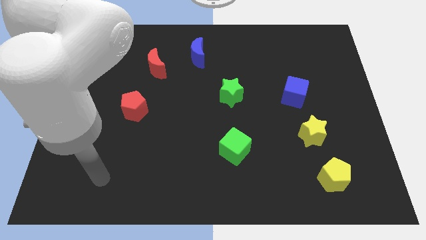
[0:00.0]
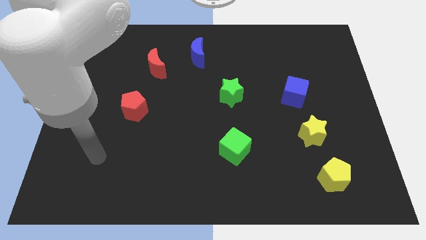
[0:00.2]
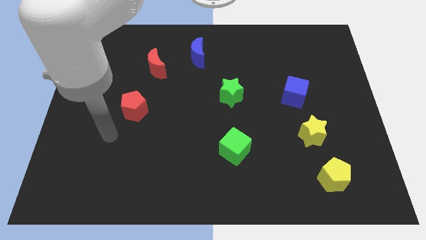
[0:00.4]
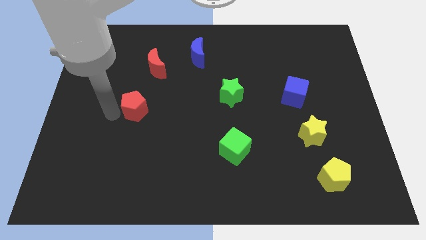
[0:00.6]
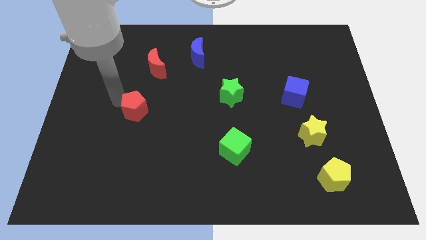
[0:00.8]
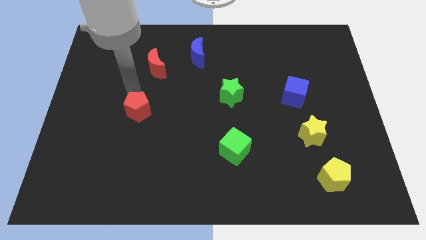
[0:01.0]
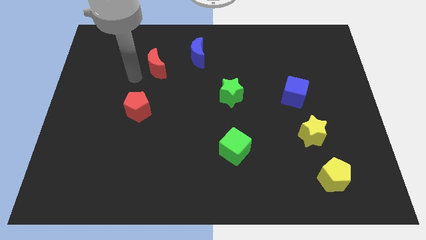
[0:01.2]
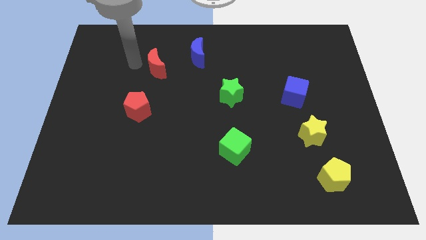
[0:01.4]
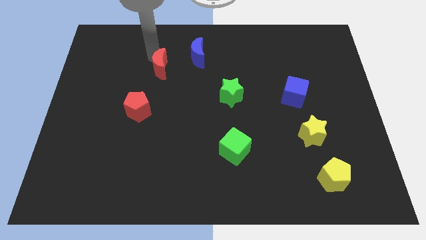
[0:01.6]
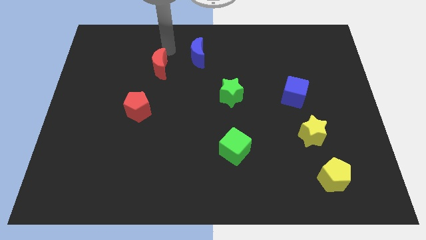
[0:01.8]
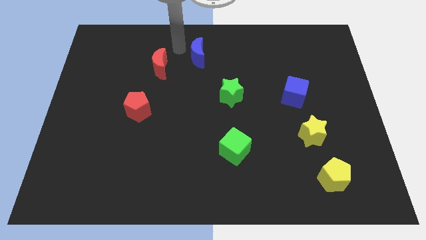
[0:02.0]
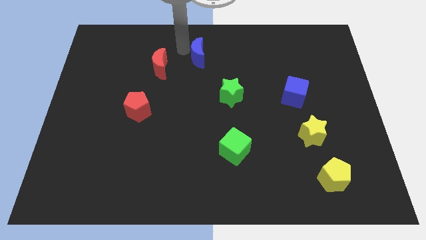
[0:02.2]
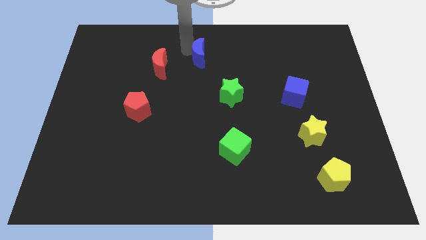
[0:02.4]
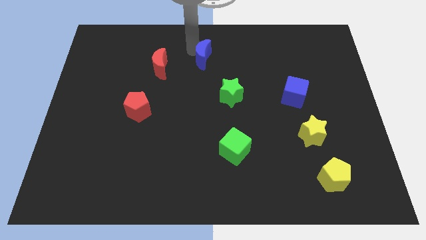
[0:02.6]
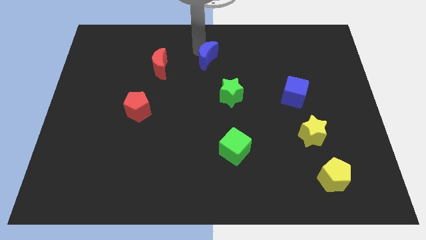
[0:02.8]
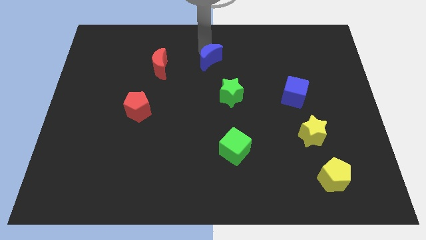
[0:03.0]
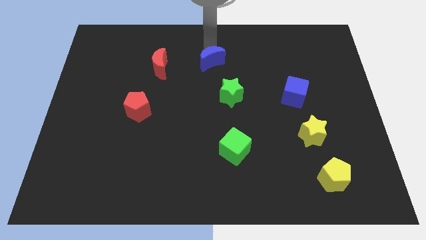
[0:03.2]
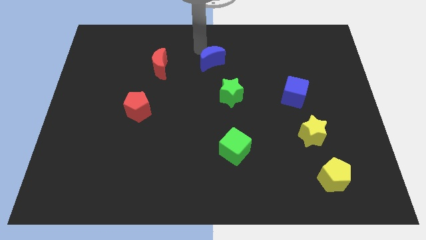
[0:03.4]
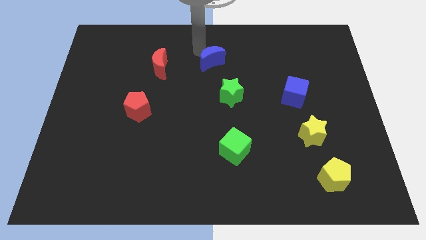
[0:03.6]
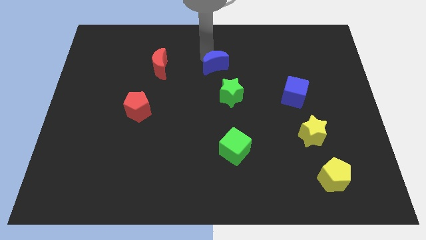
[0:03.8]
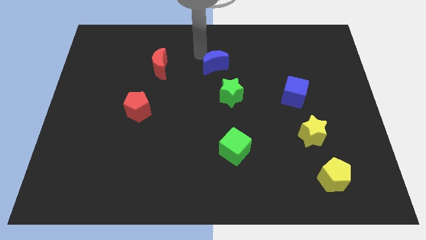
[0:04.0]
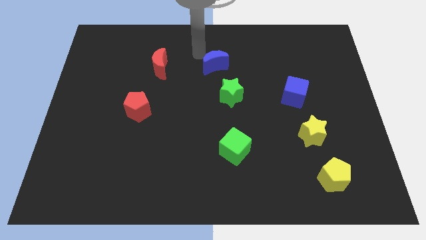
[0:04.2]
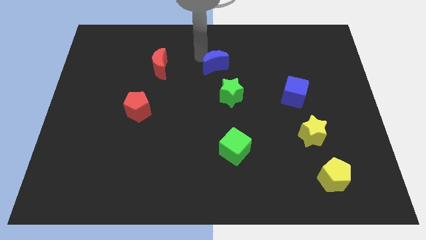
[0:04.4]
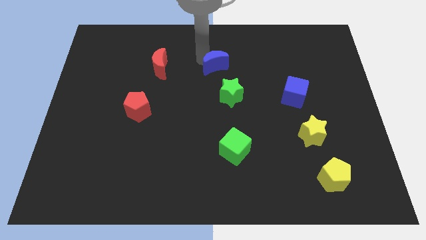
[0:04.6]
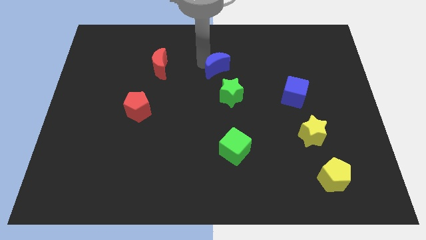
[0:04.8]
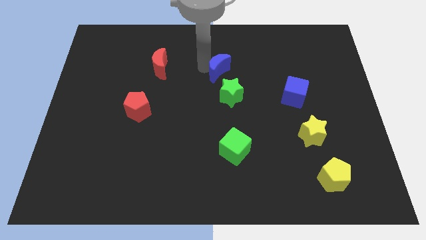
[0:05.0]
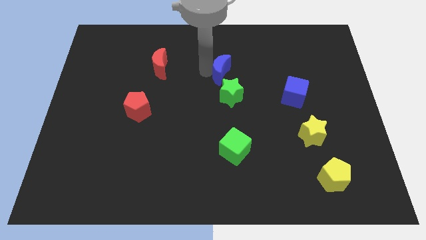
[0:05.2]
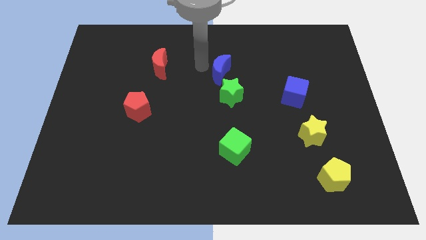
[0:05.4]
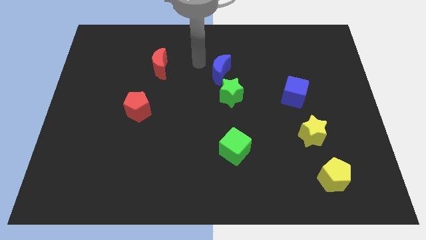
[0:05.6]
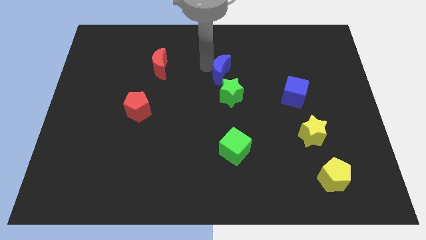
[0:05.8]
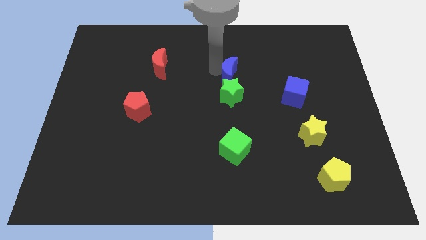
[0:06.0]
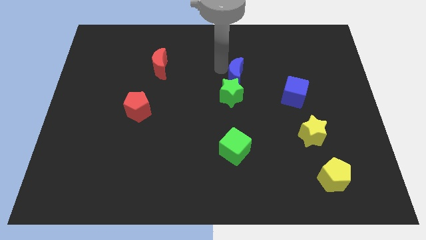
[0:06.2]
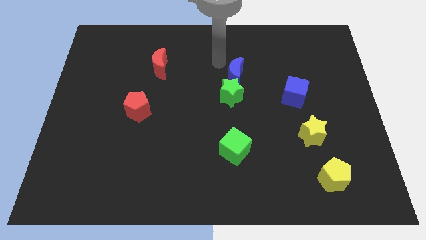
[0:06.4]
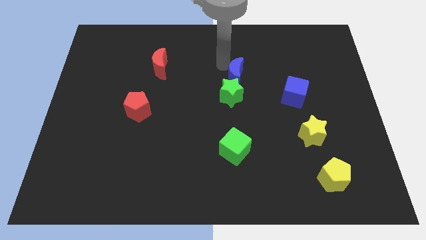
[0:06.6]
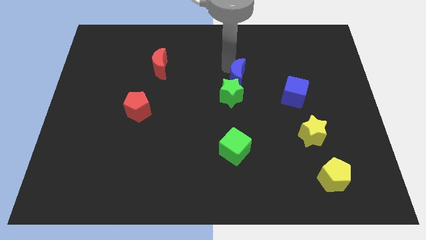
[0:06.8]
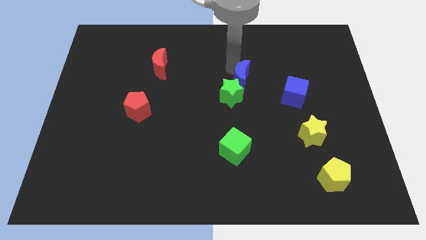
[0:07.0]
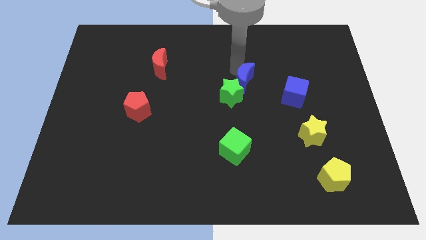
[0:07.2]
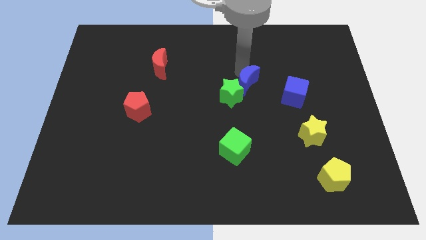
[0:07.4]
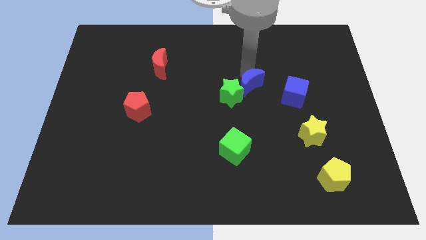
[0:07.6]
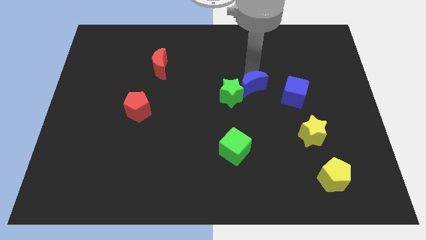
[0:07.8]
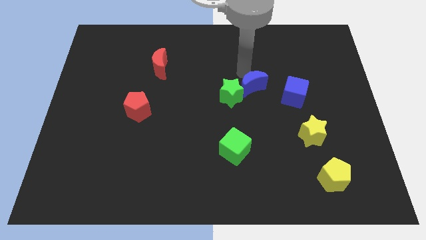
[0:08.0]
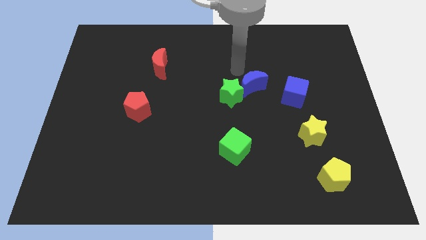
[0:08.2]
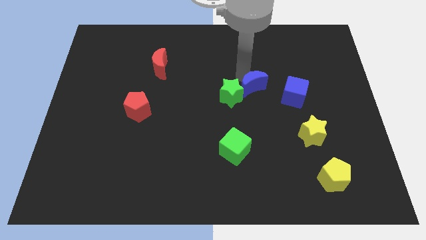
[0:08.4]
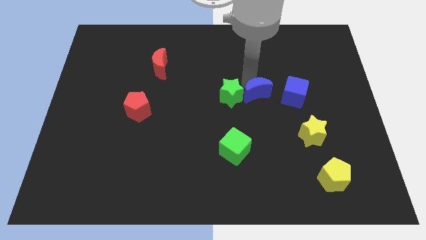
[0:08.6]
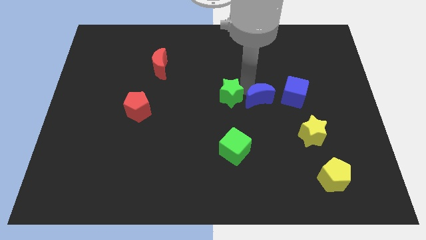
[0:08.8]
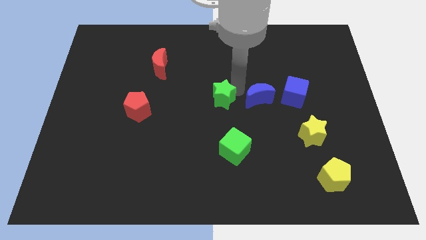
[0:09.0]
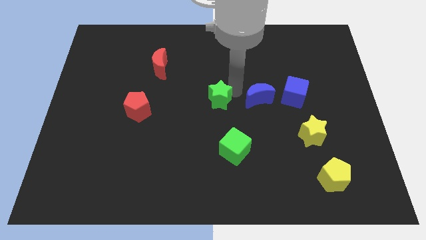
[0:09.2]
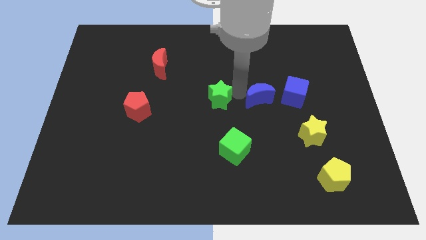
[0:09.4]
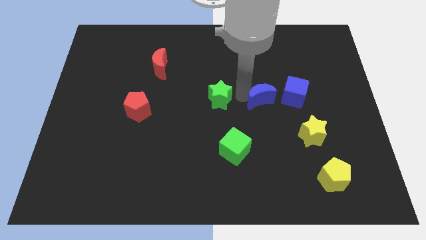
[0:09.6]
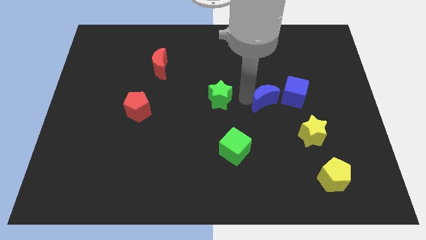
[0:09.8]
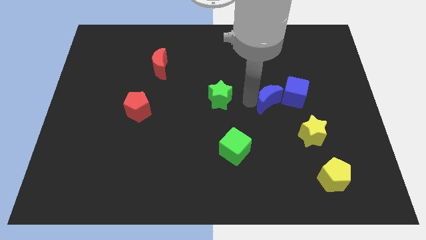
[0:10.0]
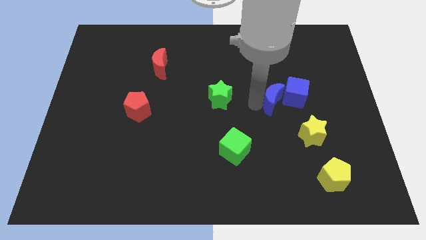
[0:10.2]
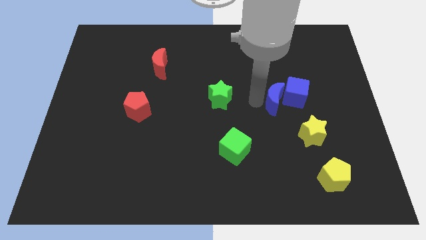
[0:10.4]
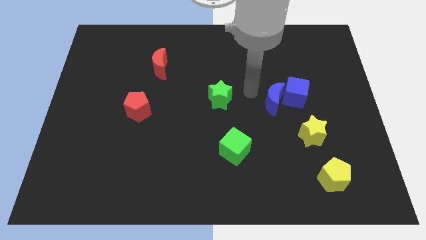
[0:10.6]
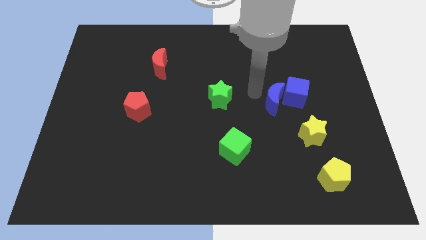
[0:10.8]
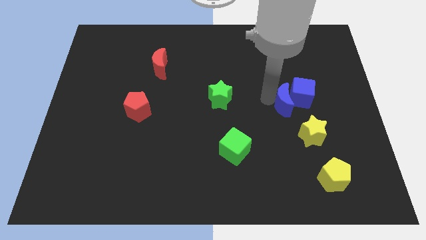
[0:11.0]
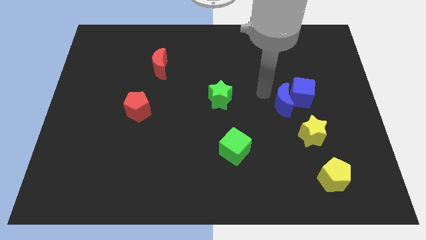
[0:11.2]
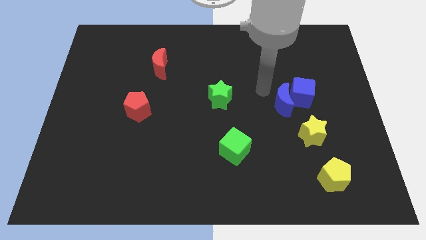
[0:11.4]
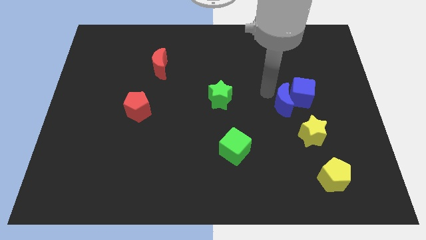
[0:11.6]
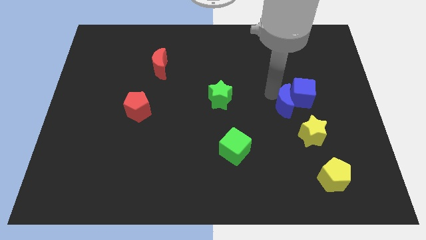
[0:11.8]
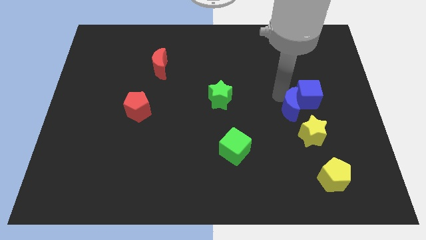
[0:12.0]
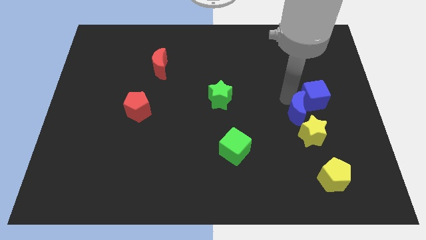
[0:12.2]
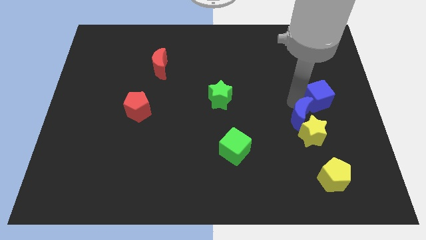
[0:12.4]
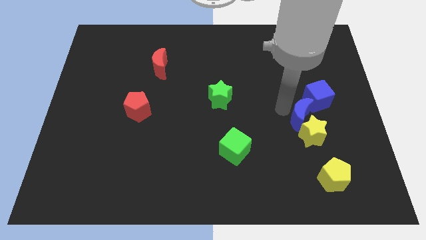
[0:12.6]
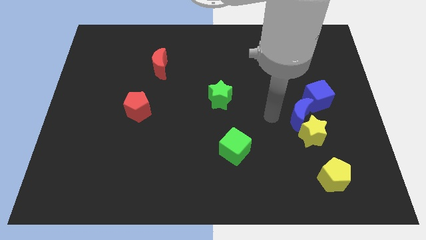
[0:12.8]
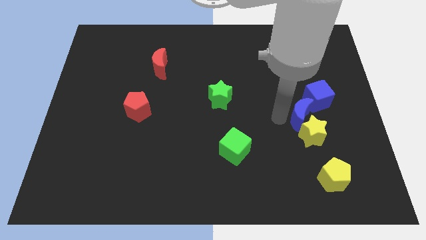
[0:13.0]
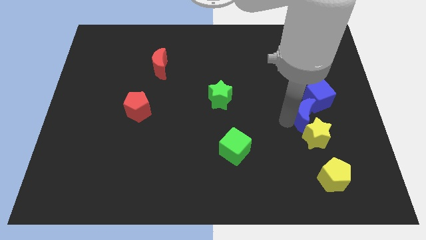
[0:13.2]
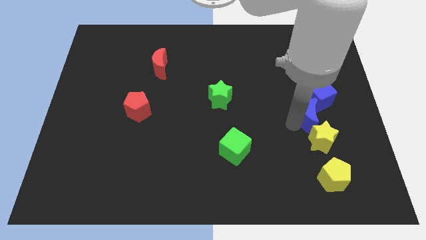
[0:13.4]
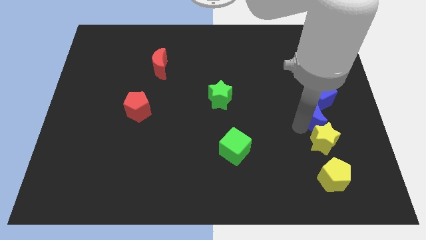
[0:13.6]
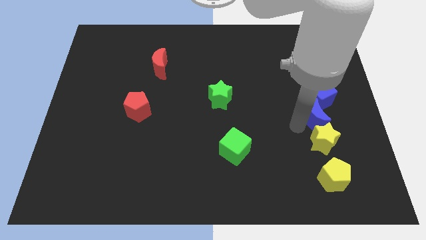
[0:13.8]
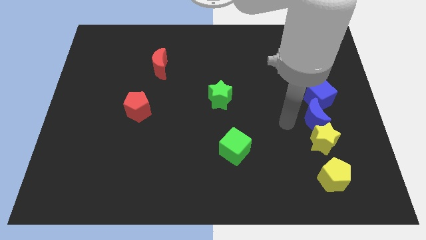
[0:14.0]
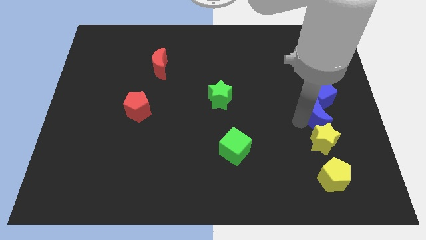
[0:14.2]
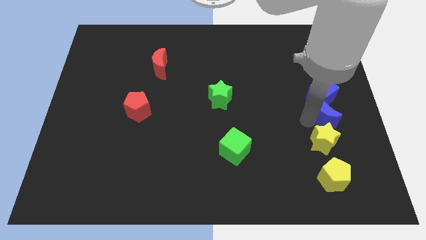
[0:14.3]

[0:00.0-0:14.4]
push the blue moon diagonally down and to the right of the blue cube

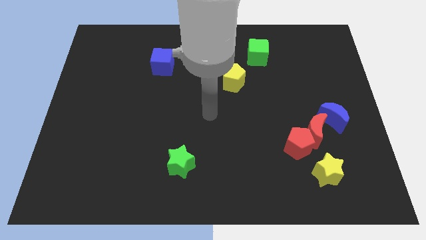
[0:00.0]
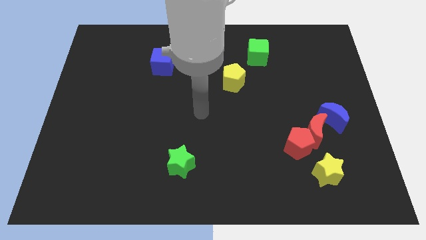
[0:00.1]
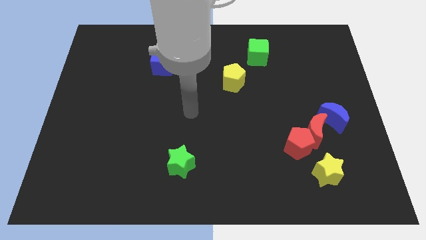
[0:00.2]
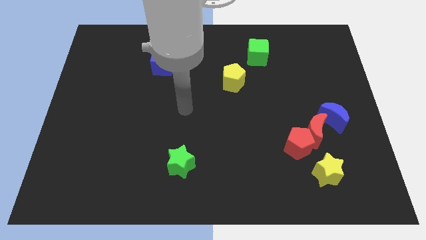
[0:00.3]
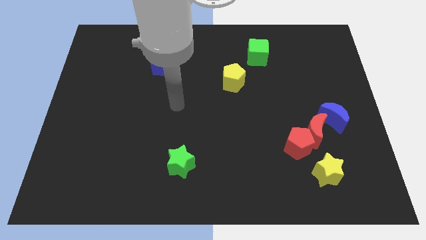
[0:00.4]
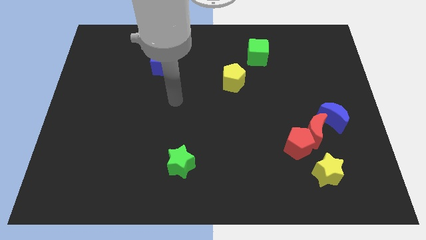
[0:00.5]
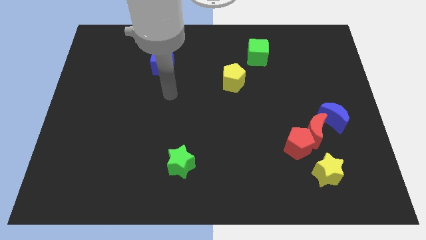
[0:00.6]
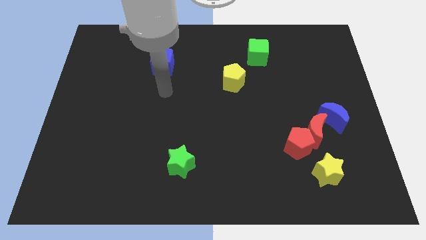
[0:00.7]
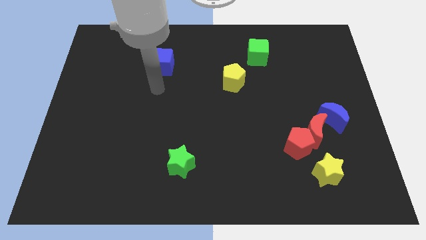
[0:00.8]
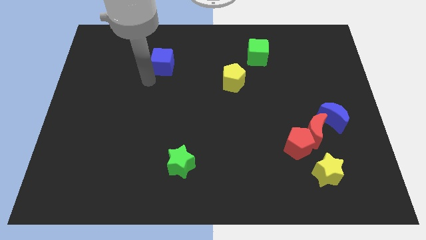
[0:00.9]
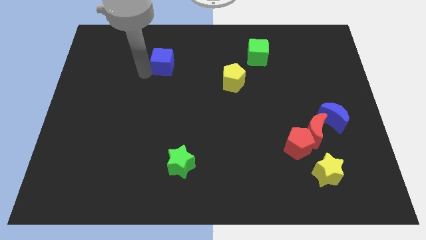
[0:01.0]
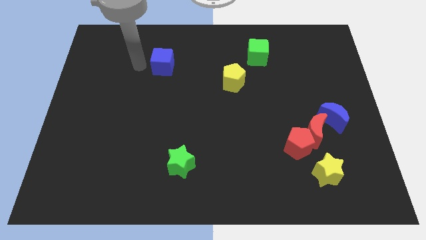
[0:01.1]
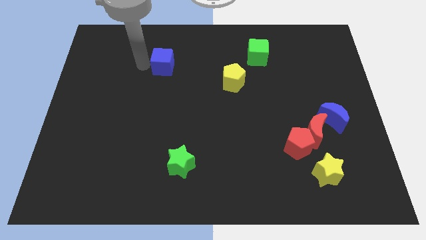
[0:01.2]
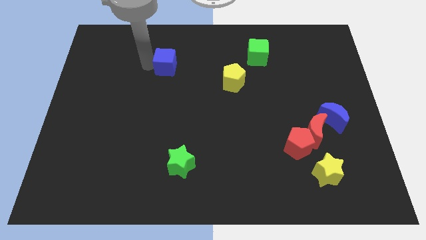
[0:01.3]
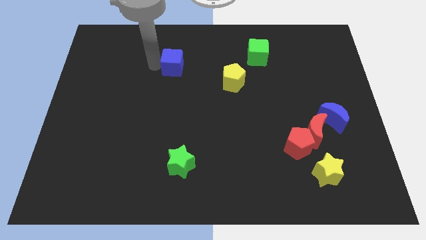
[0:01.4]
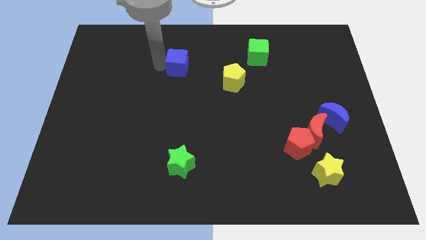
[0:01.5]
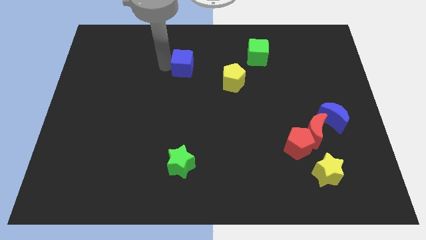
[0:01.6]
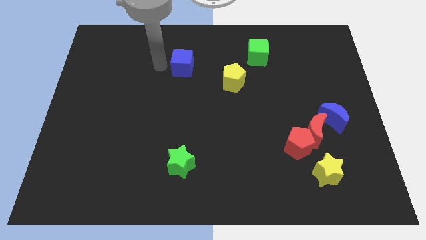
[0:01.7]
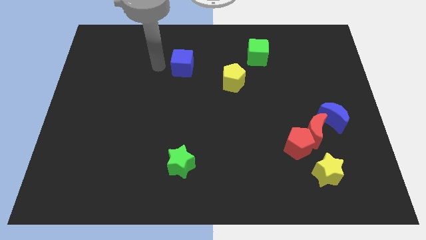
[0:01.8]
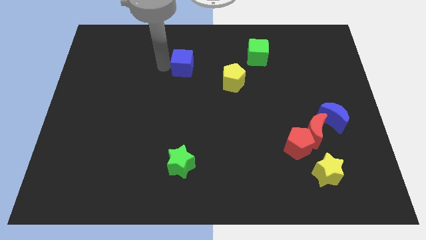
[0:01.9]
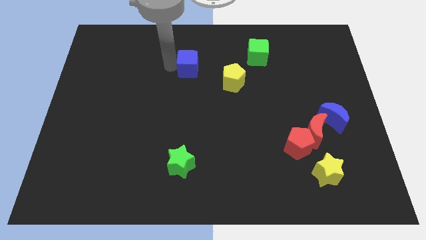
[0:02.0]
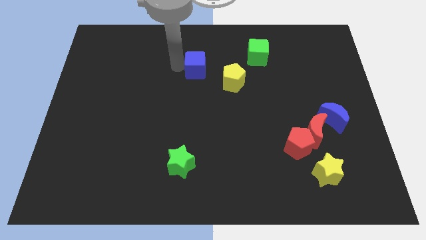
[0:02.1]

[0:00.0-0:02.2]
push the blue cube diagonally up and to the left of the yellow pentagon
